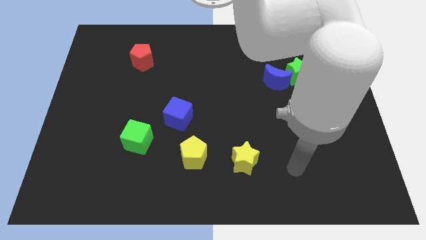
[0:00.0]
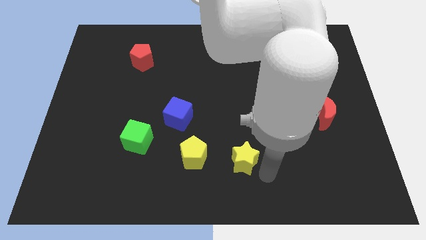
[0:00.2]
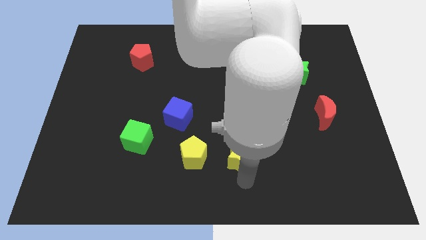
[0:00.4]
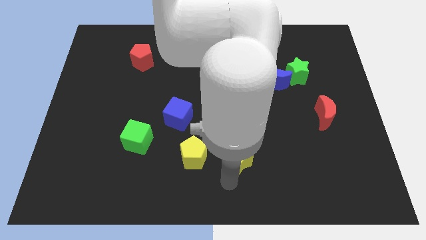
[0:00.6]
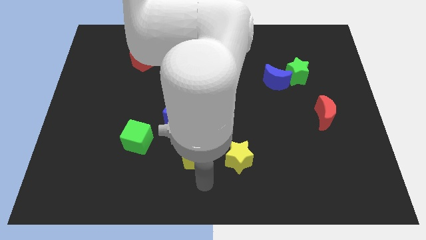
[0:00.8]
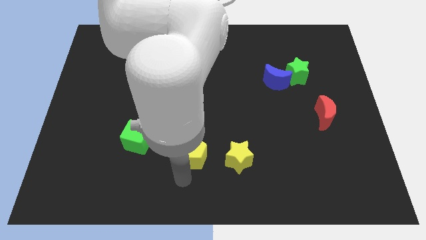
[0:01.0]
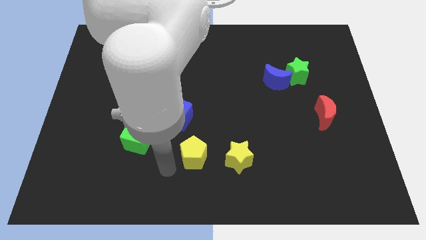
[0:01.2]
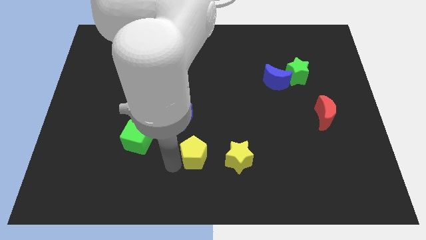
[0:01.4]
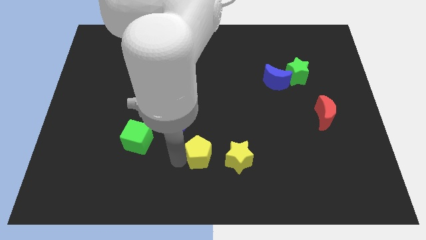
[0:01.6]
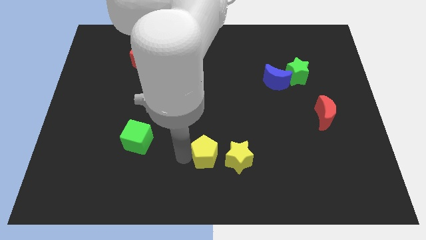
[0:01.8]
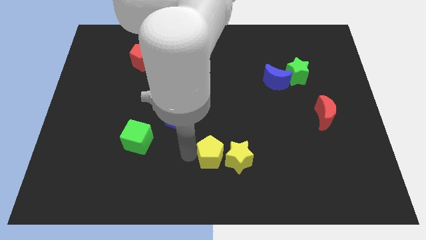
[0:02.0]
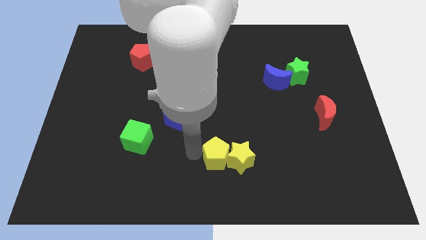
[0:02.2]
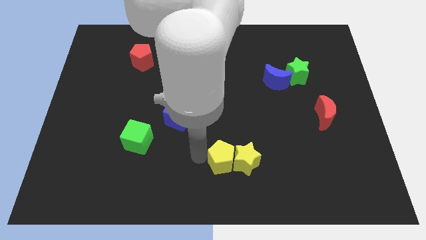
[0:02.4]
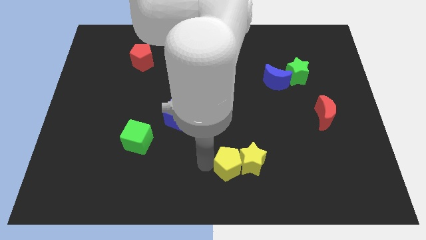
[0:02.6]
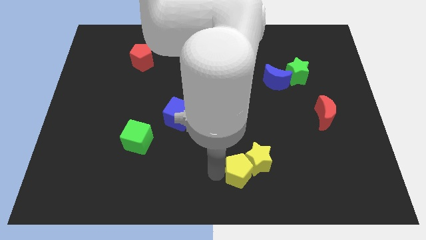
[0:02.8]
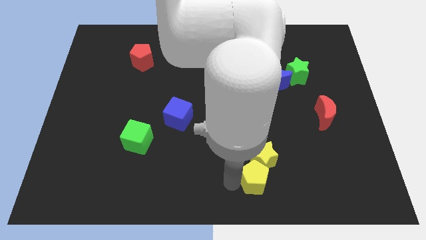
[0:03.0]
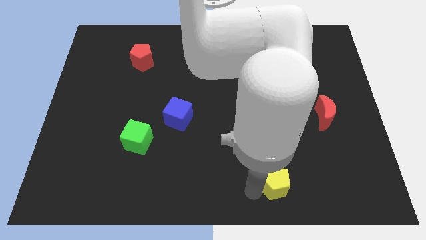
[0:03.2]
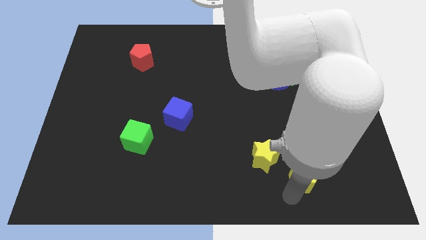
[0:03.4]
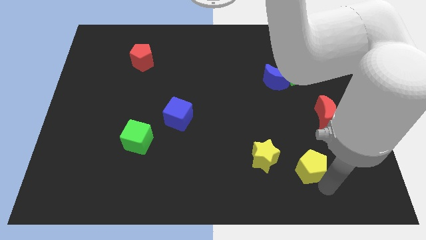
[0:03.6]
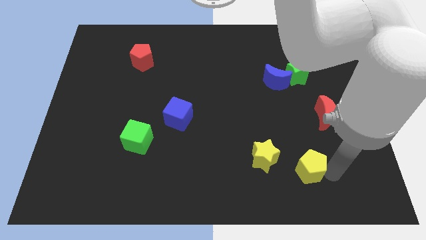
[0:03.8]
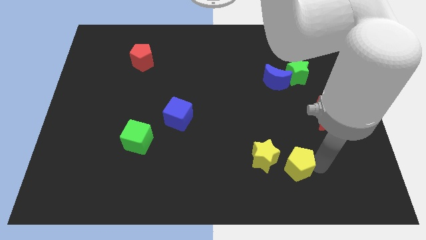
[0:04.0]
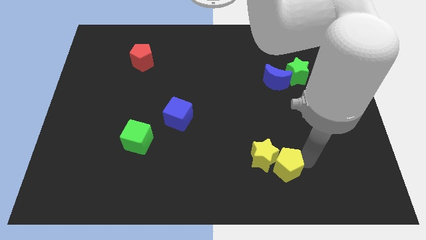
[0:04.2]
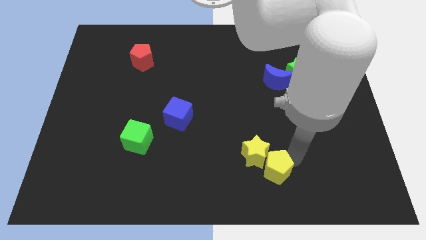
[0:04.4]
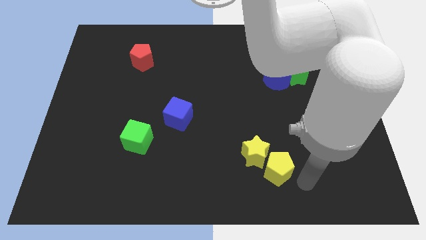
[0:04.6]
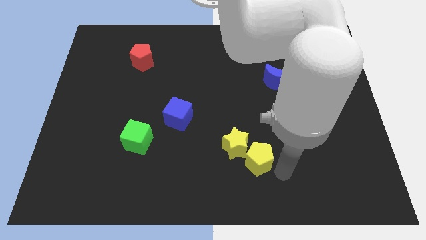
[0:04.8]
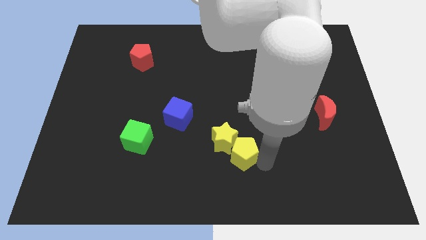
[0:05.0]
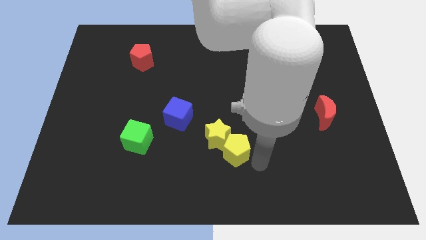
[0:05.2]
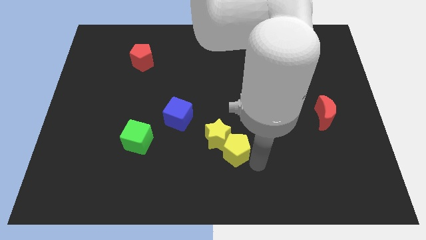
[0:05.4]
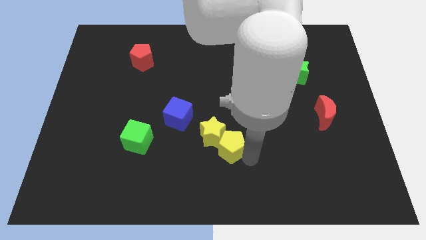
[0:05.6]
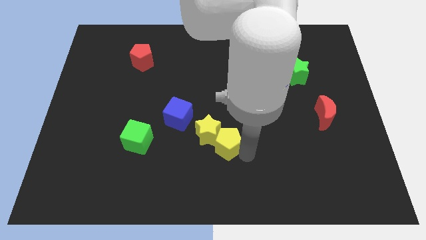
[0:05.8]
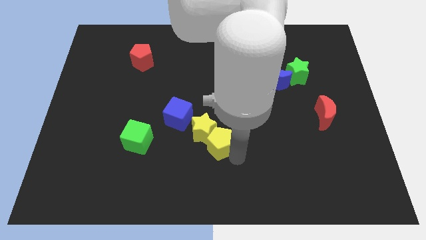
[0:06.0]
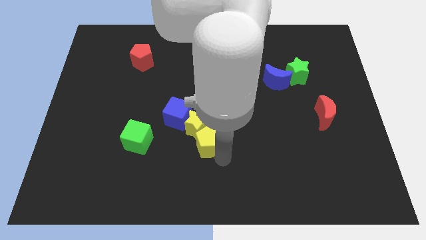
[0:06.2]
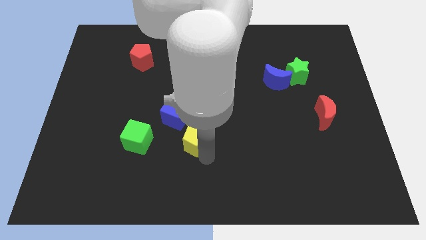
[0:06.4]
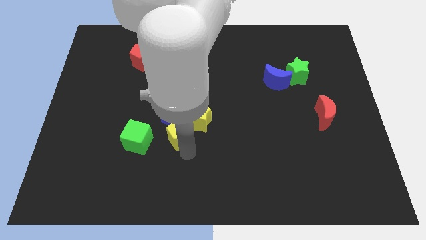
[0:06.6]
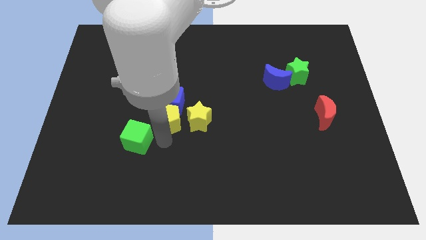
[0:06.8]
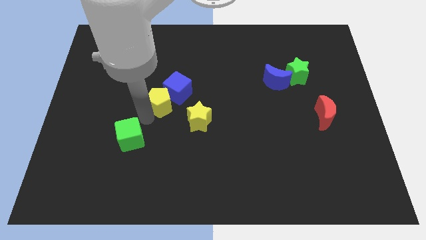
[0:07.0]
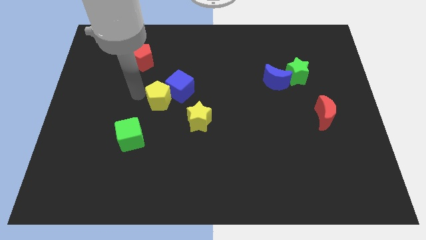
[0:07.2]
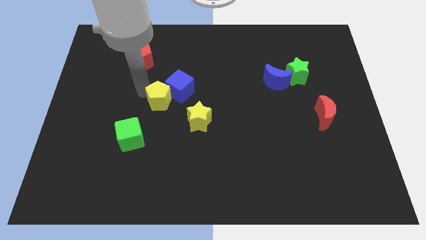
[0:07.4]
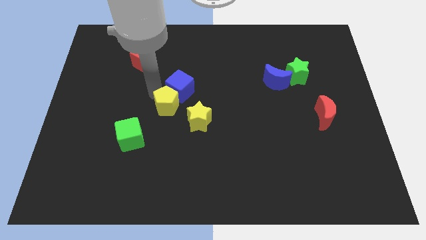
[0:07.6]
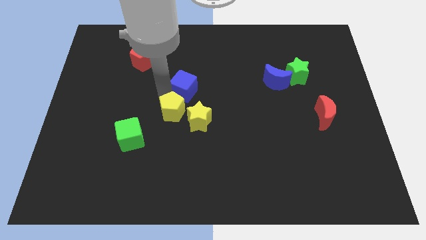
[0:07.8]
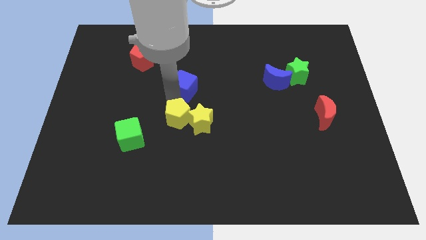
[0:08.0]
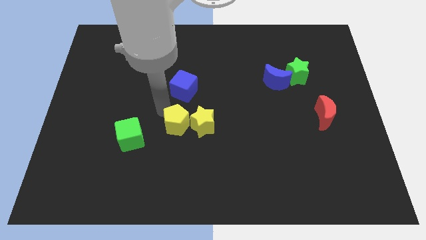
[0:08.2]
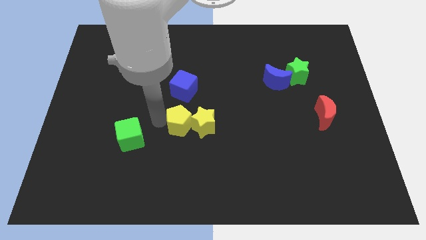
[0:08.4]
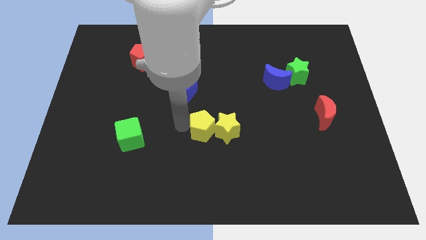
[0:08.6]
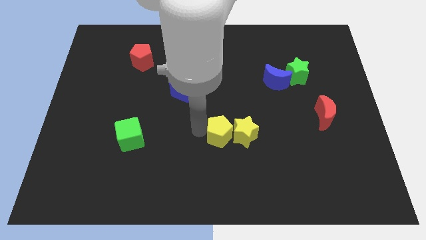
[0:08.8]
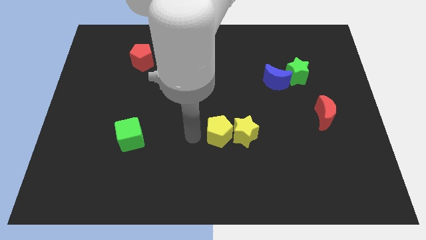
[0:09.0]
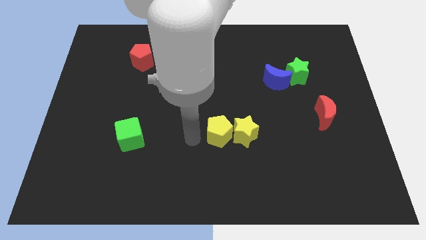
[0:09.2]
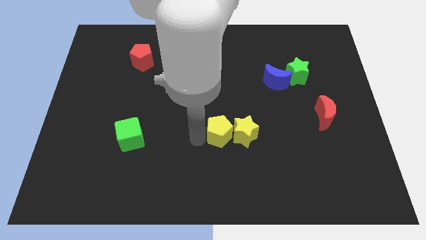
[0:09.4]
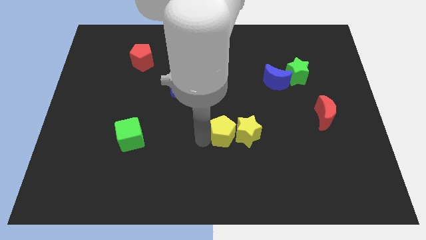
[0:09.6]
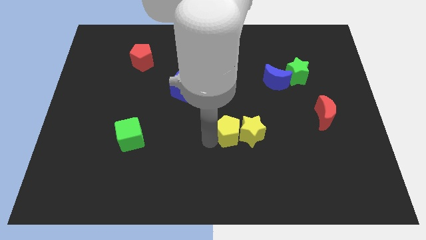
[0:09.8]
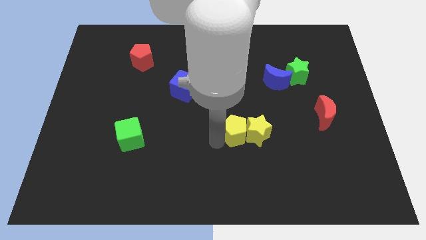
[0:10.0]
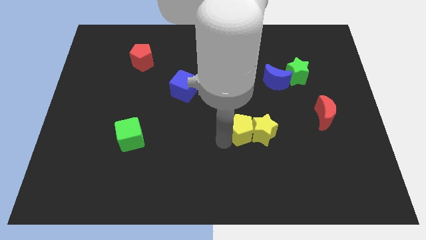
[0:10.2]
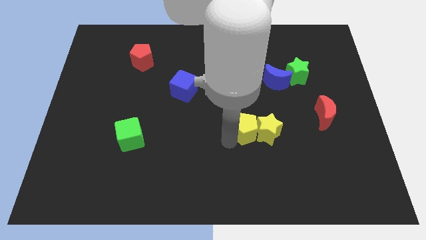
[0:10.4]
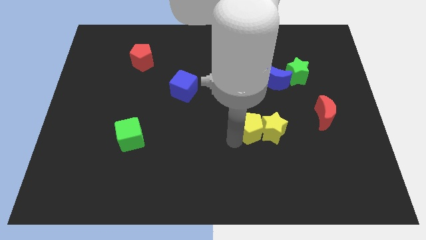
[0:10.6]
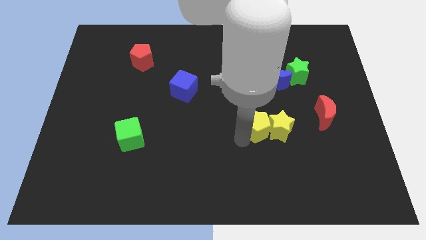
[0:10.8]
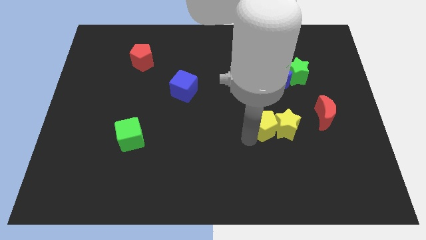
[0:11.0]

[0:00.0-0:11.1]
push the yellow pentagon to the bottom side of the blue moon

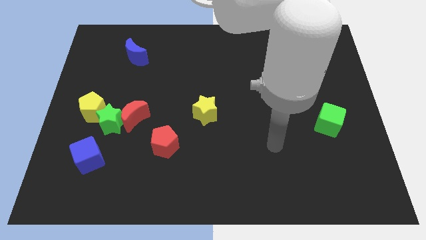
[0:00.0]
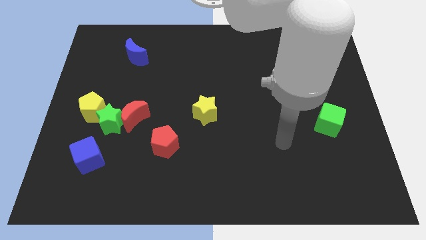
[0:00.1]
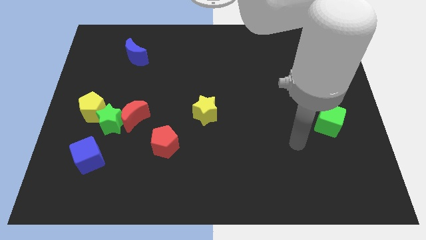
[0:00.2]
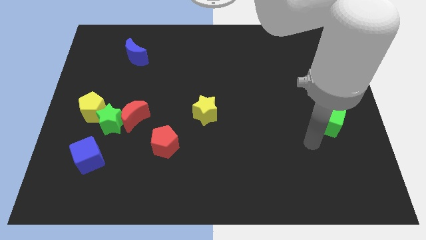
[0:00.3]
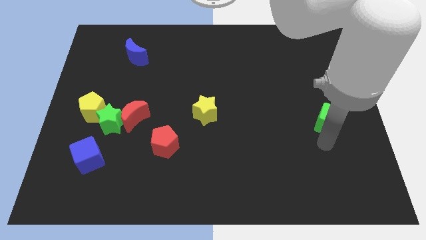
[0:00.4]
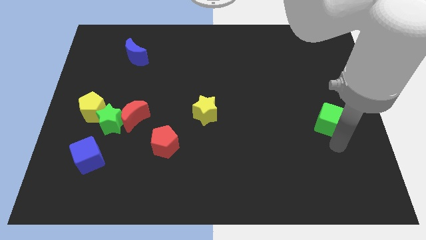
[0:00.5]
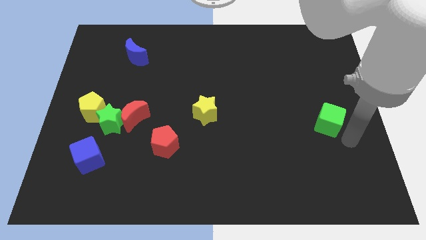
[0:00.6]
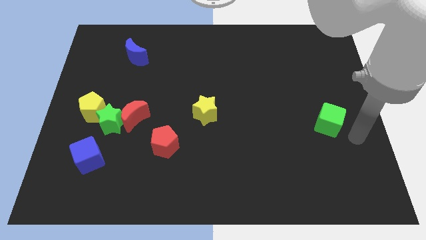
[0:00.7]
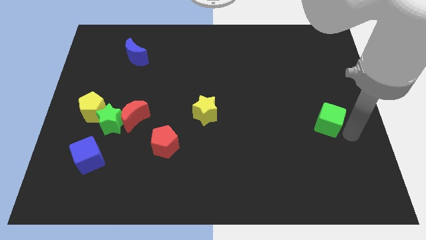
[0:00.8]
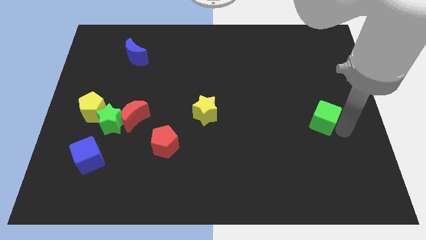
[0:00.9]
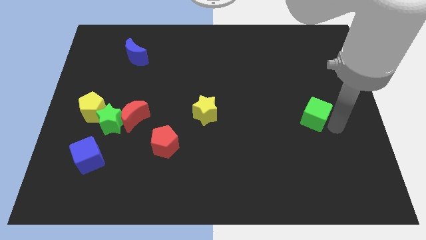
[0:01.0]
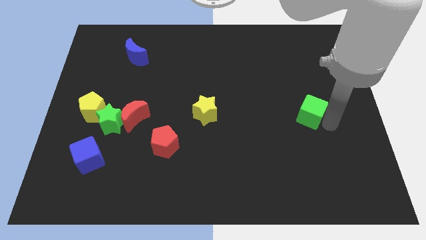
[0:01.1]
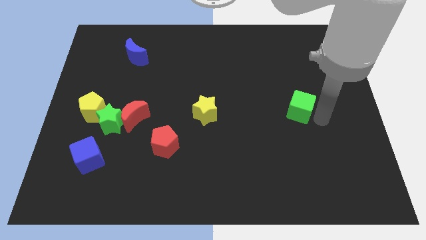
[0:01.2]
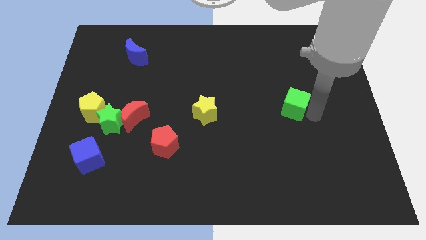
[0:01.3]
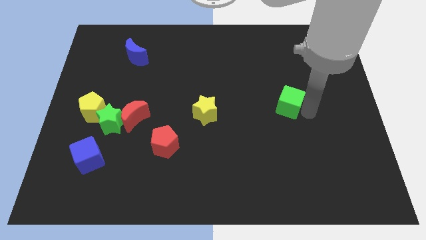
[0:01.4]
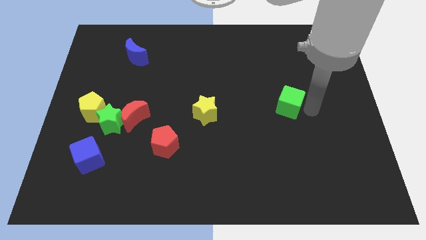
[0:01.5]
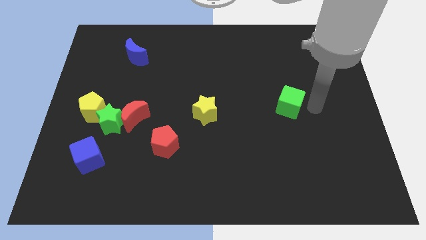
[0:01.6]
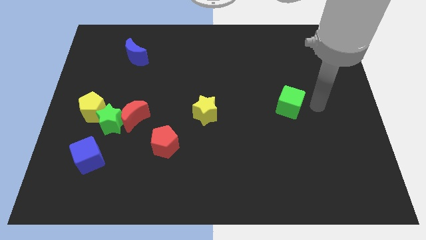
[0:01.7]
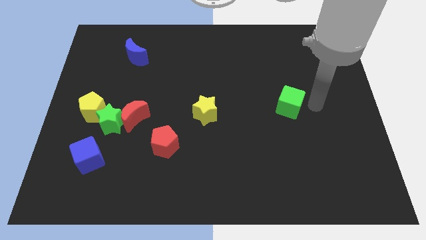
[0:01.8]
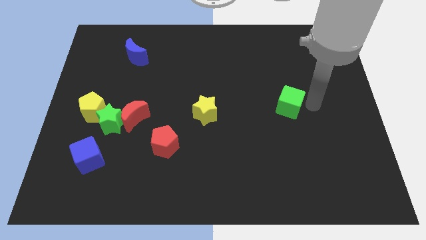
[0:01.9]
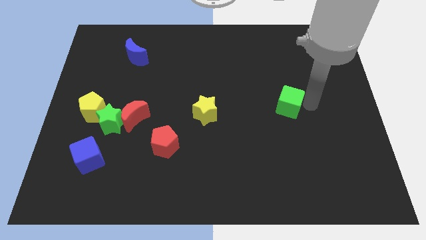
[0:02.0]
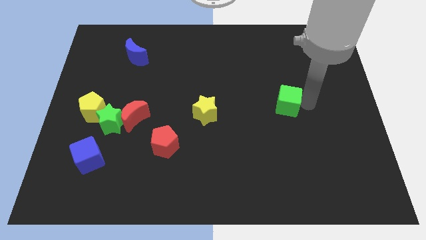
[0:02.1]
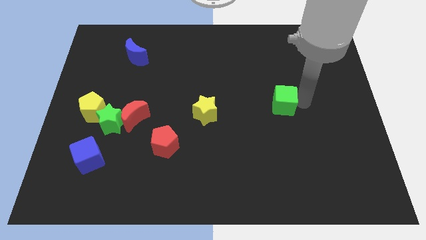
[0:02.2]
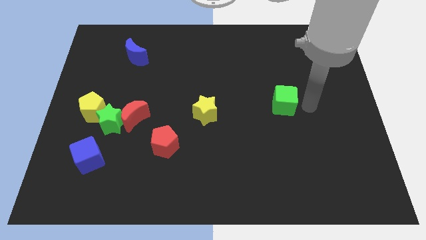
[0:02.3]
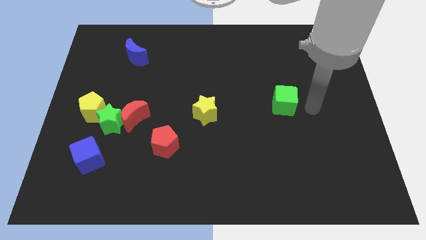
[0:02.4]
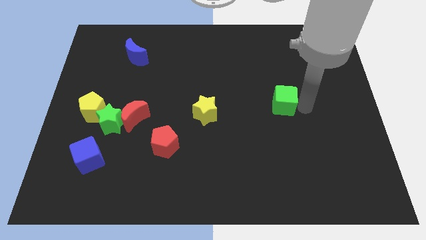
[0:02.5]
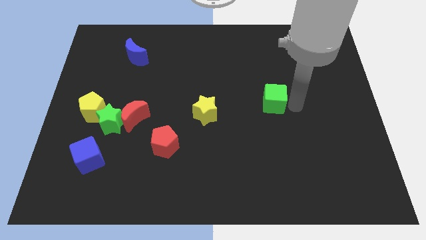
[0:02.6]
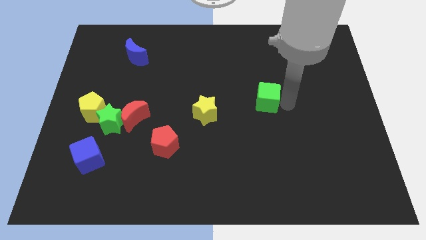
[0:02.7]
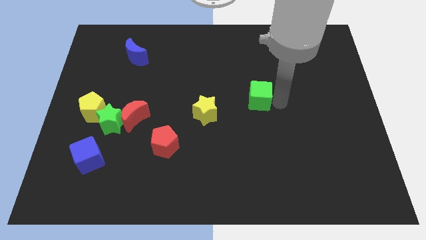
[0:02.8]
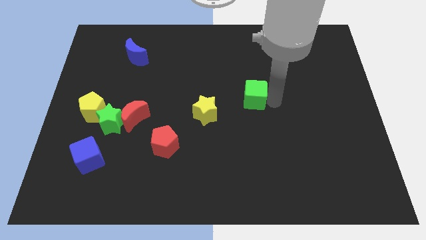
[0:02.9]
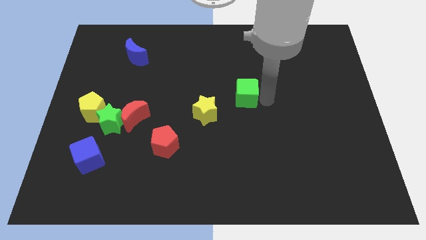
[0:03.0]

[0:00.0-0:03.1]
push the green cube diagonally up and to the right of the yellow star
